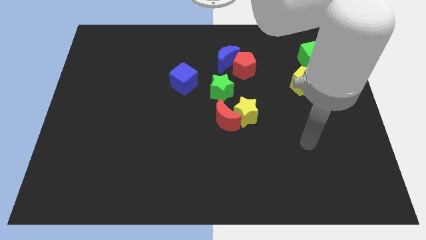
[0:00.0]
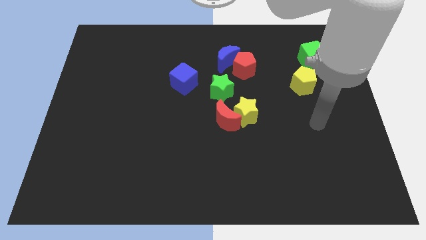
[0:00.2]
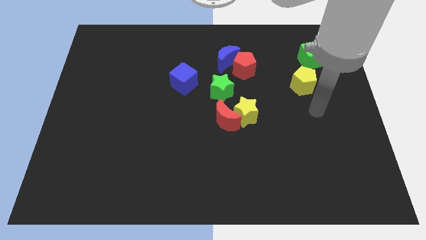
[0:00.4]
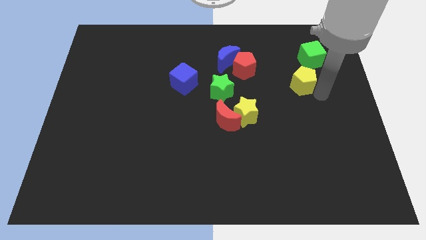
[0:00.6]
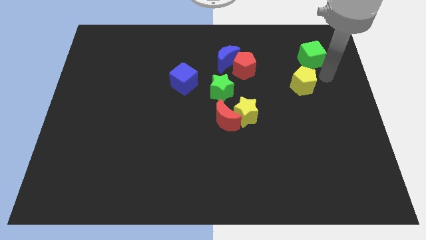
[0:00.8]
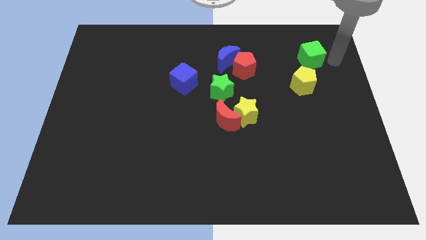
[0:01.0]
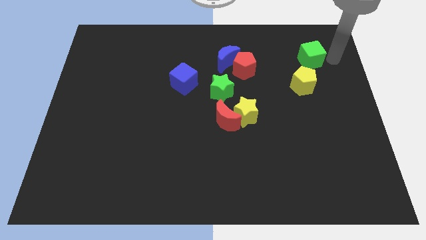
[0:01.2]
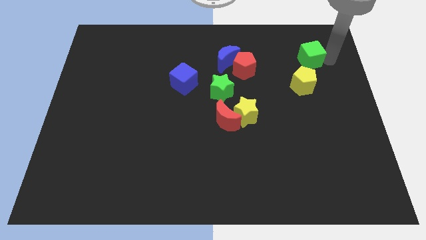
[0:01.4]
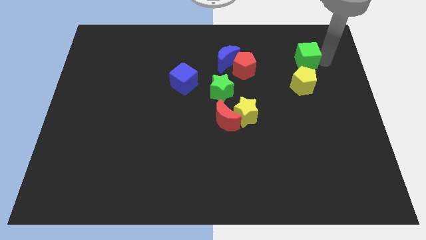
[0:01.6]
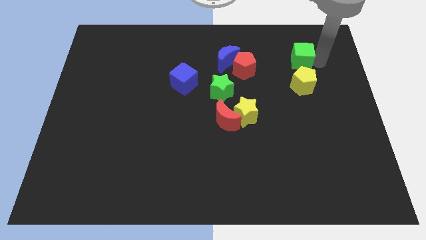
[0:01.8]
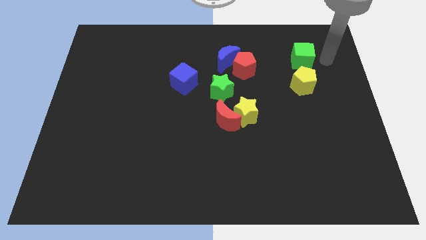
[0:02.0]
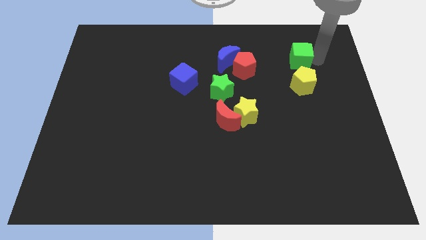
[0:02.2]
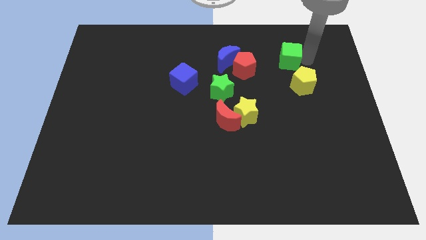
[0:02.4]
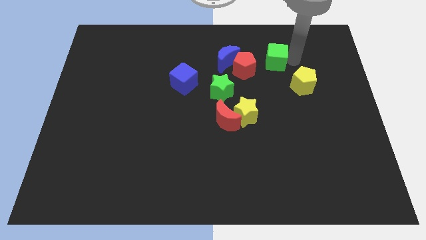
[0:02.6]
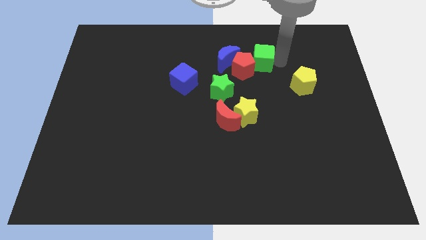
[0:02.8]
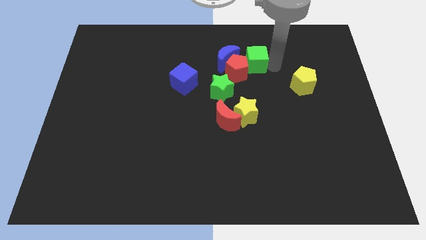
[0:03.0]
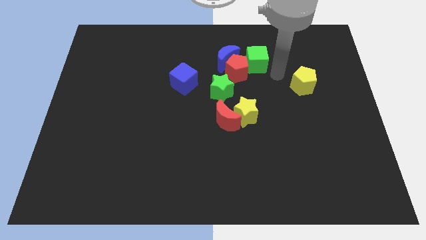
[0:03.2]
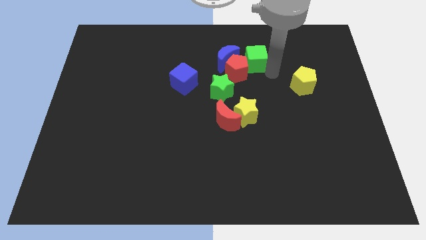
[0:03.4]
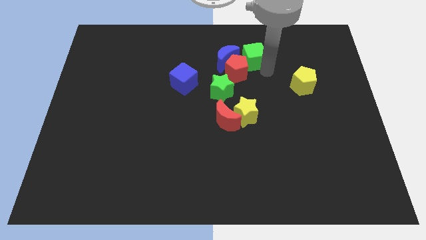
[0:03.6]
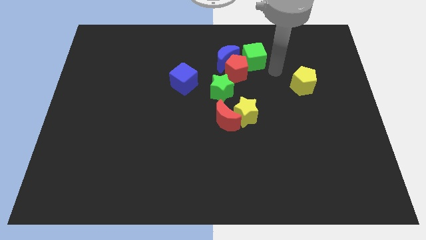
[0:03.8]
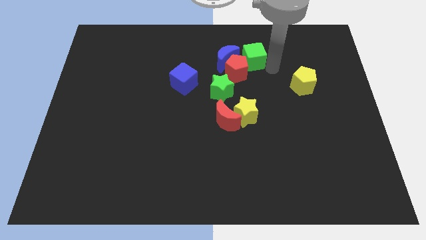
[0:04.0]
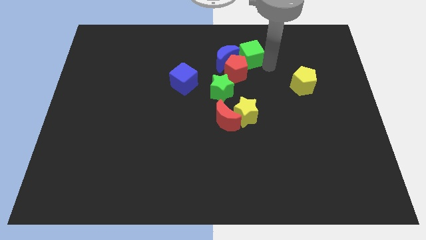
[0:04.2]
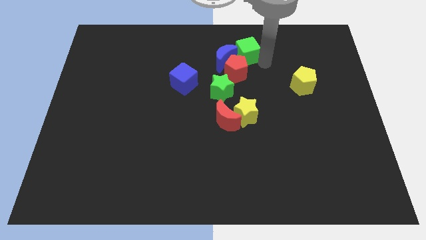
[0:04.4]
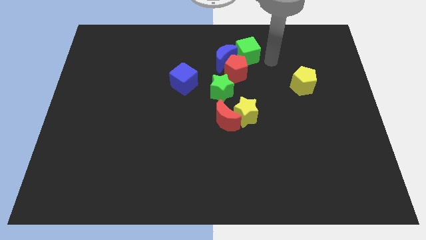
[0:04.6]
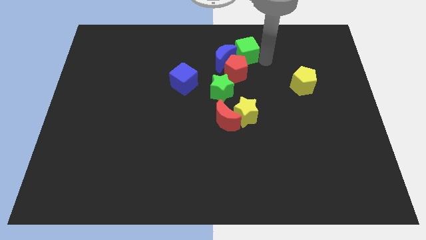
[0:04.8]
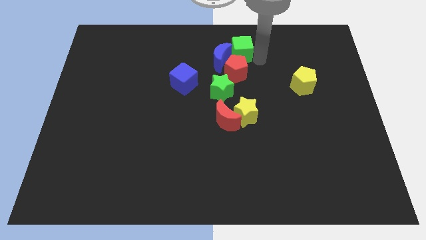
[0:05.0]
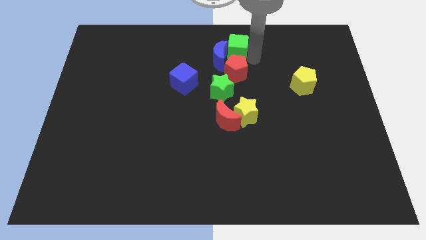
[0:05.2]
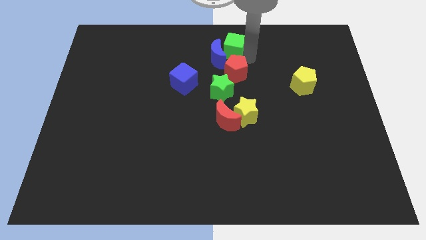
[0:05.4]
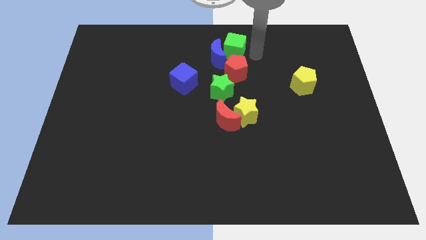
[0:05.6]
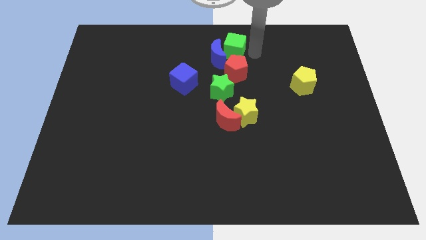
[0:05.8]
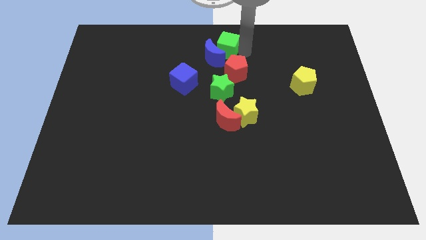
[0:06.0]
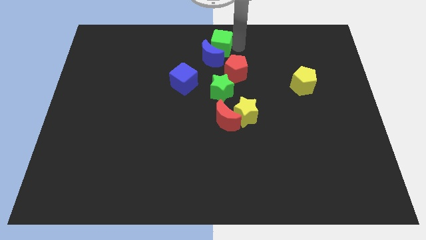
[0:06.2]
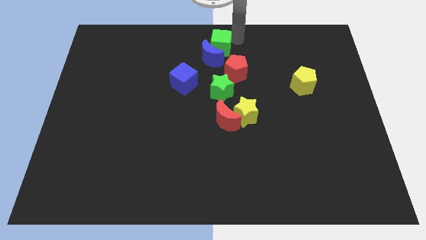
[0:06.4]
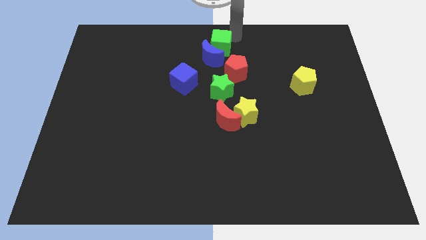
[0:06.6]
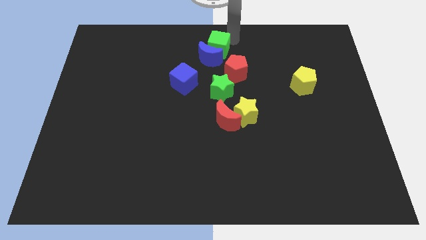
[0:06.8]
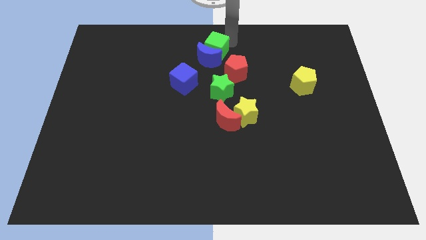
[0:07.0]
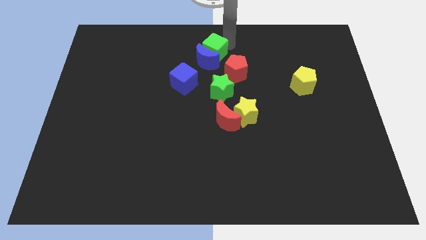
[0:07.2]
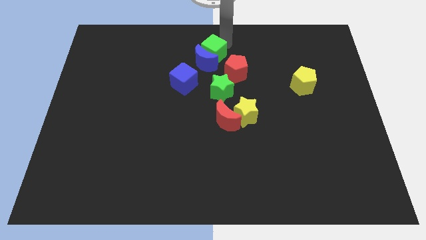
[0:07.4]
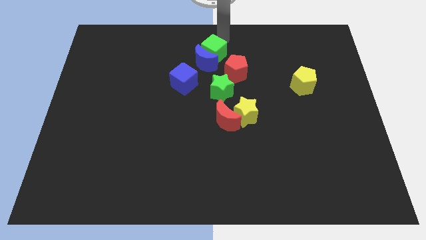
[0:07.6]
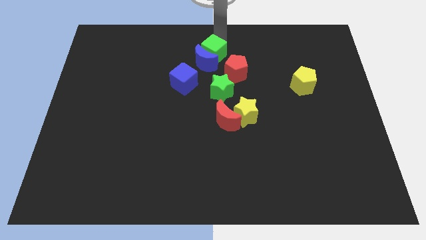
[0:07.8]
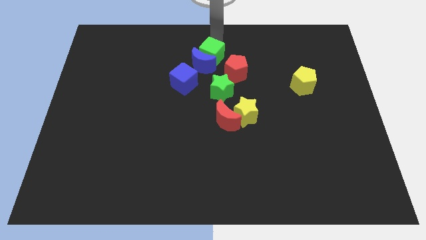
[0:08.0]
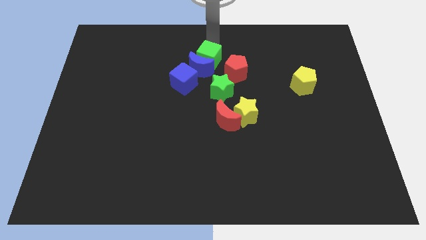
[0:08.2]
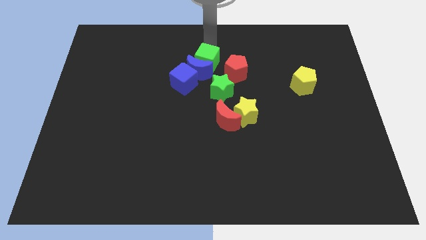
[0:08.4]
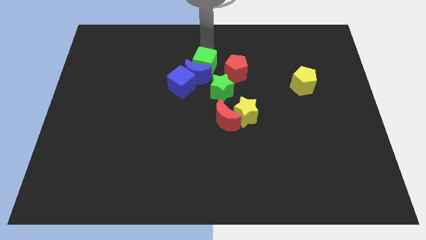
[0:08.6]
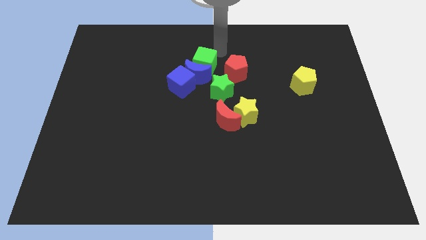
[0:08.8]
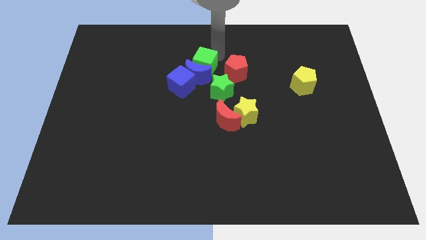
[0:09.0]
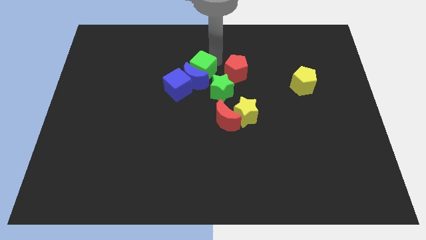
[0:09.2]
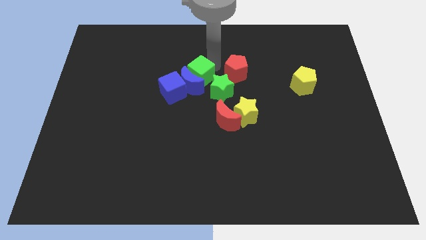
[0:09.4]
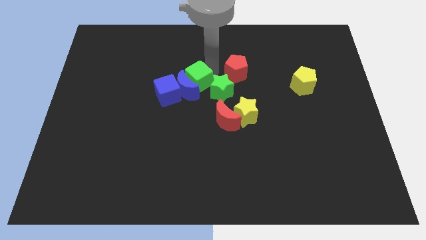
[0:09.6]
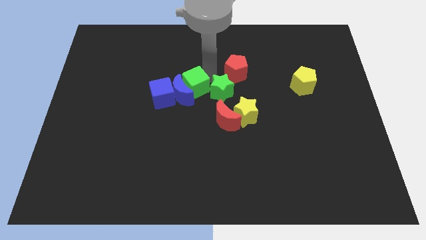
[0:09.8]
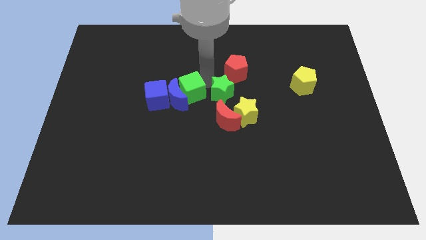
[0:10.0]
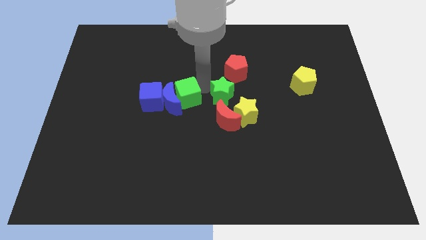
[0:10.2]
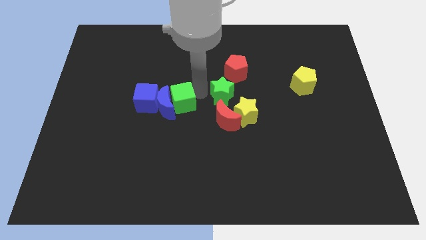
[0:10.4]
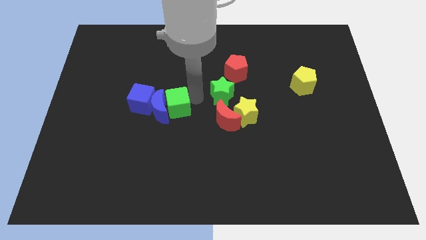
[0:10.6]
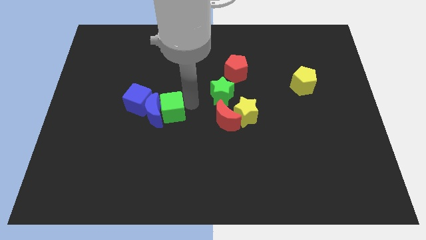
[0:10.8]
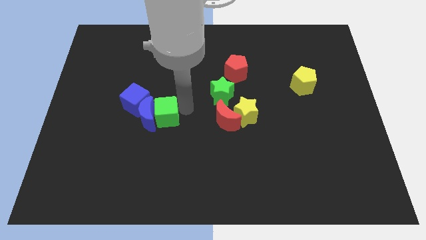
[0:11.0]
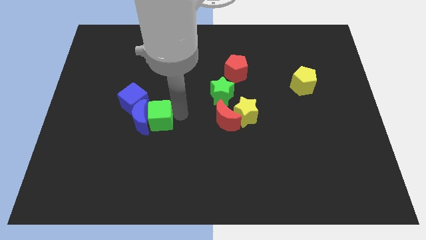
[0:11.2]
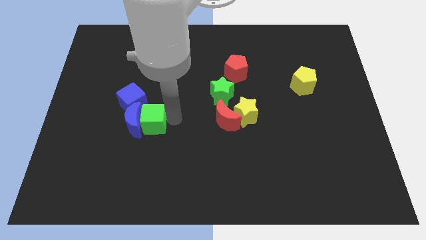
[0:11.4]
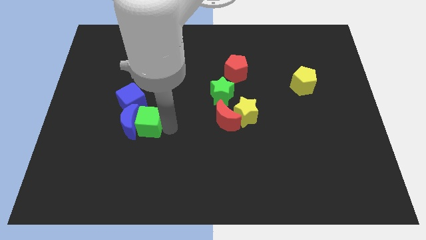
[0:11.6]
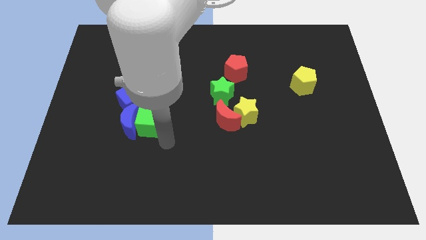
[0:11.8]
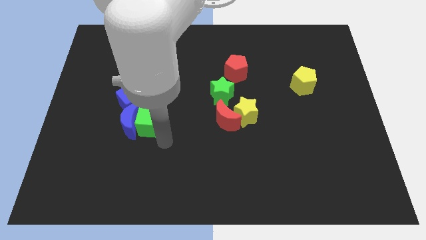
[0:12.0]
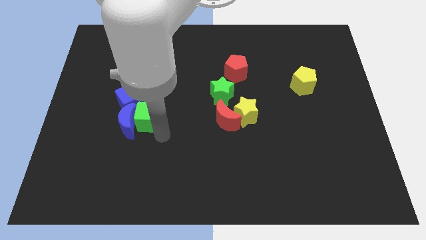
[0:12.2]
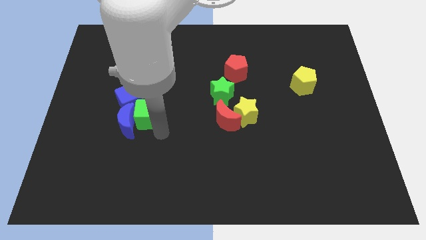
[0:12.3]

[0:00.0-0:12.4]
push the green cube to the blue cube

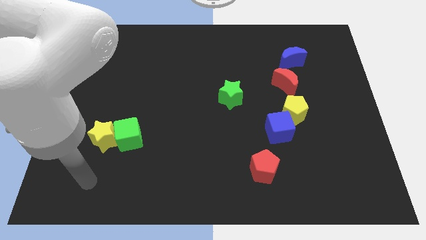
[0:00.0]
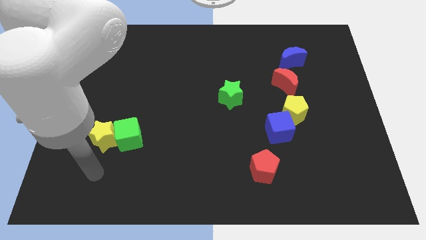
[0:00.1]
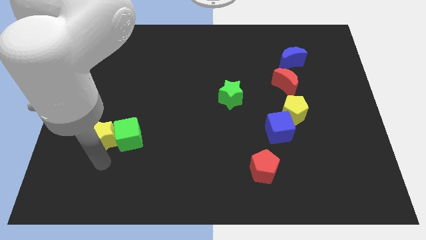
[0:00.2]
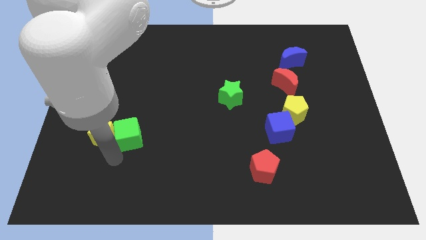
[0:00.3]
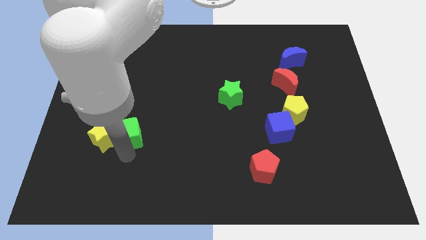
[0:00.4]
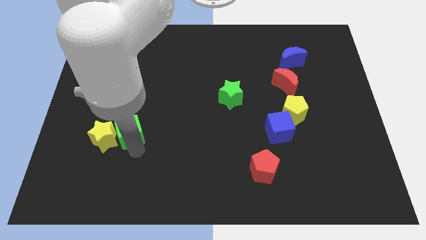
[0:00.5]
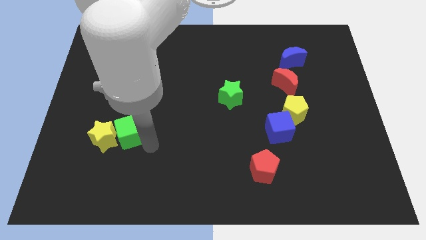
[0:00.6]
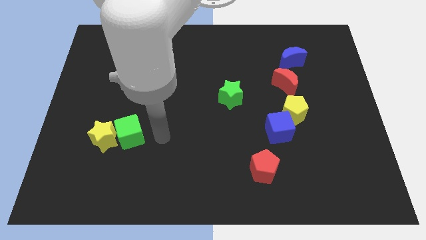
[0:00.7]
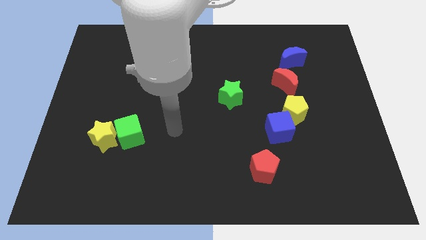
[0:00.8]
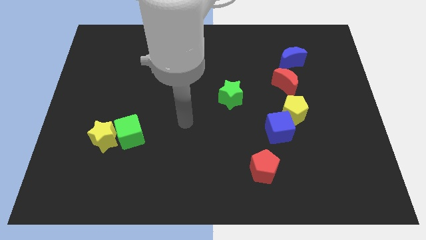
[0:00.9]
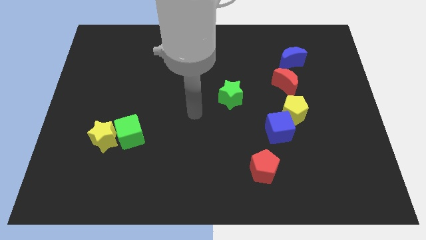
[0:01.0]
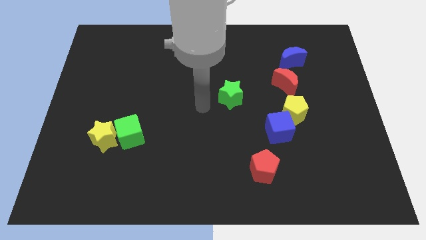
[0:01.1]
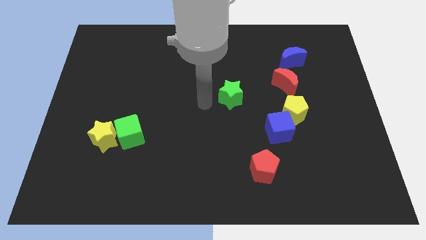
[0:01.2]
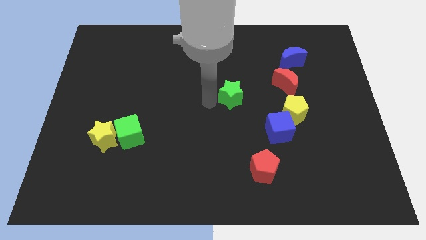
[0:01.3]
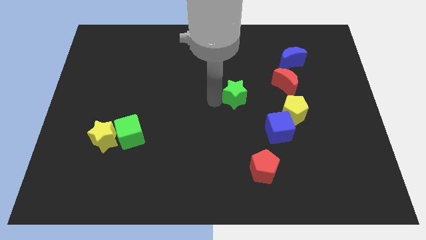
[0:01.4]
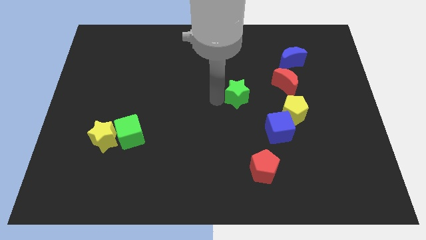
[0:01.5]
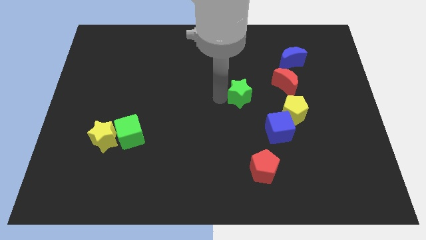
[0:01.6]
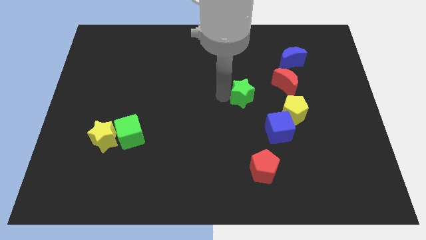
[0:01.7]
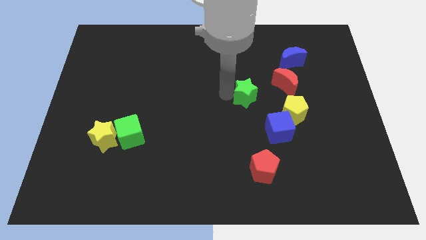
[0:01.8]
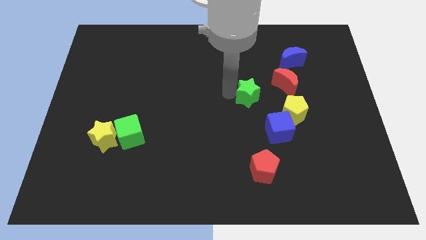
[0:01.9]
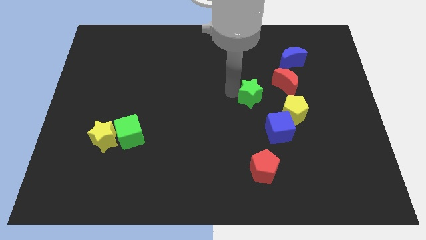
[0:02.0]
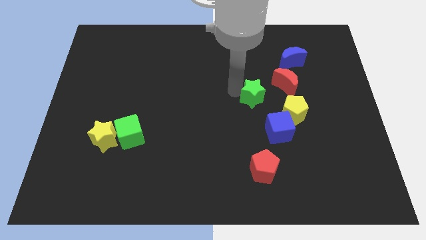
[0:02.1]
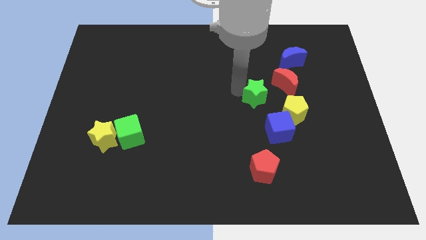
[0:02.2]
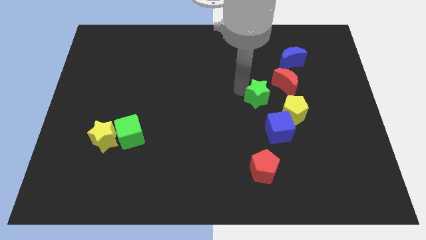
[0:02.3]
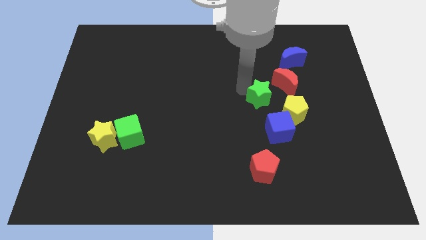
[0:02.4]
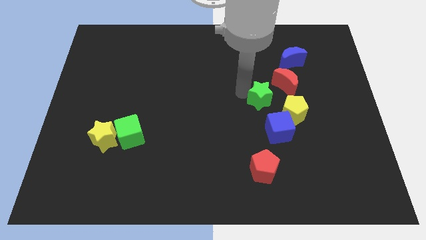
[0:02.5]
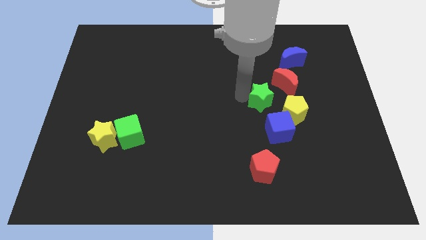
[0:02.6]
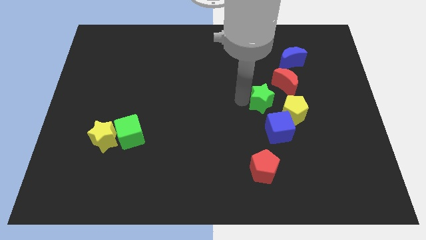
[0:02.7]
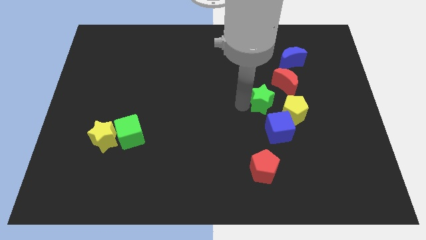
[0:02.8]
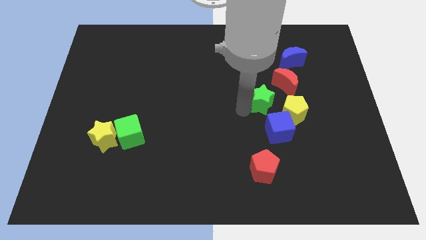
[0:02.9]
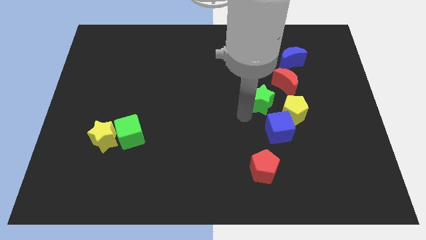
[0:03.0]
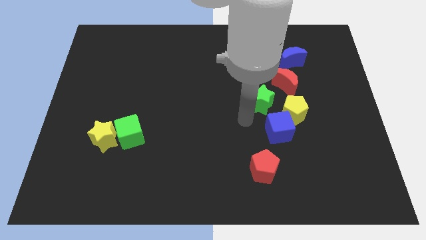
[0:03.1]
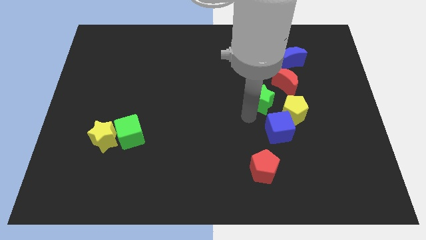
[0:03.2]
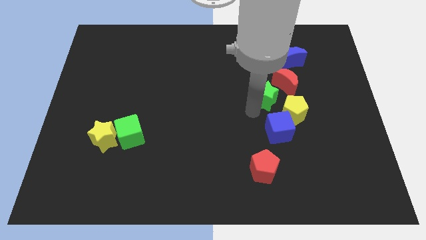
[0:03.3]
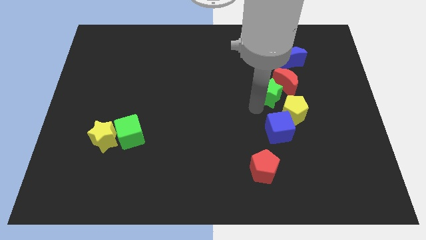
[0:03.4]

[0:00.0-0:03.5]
slide the green star towards the red moon
